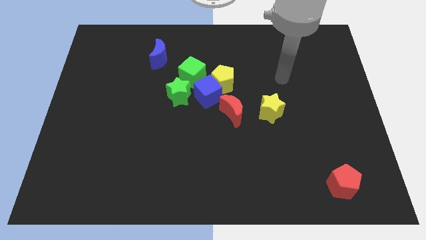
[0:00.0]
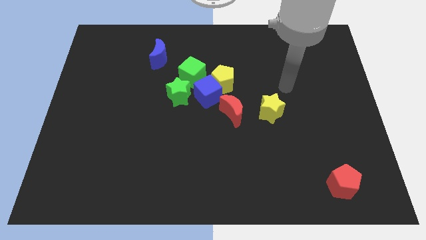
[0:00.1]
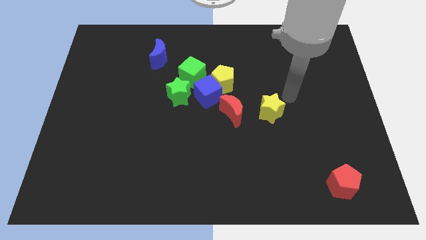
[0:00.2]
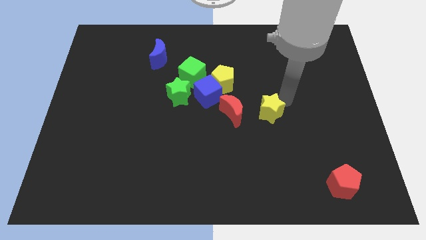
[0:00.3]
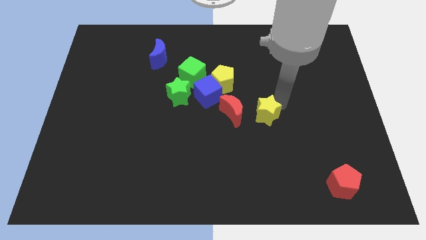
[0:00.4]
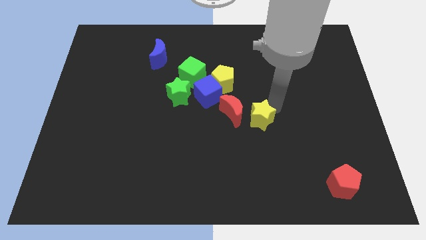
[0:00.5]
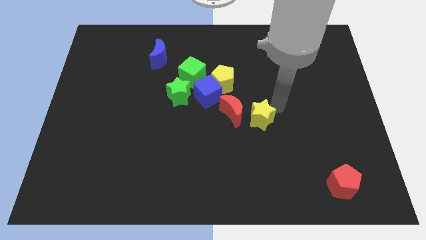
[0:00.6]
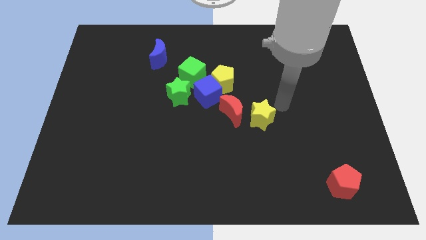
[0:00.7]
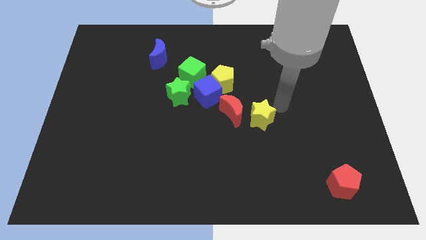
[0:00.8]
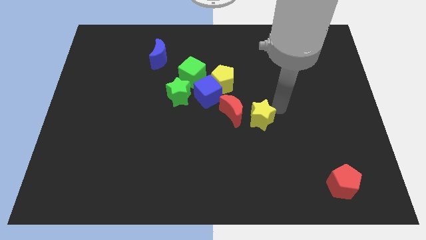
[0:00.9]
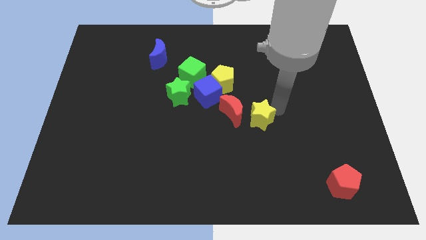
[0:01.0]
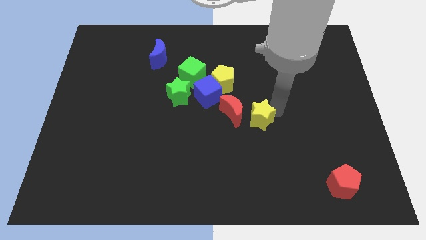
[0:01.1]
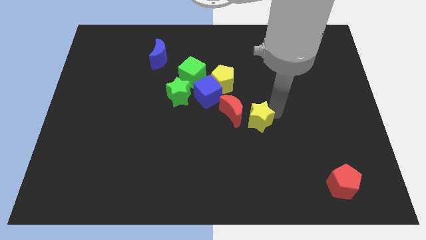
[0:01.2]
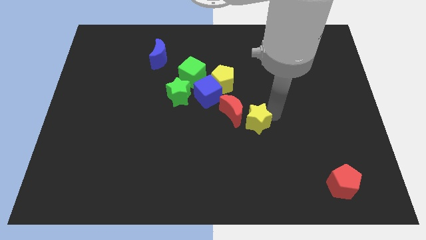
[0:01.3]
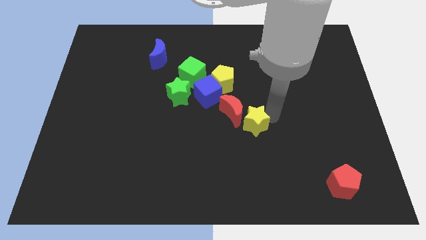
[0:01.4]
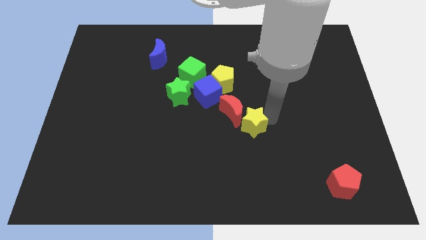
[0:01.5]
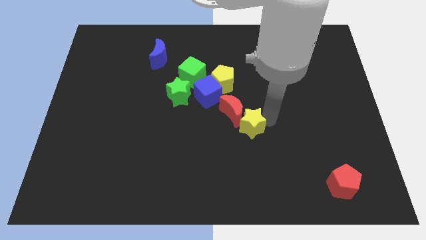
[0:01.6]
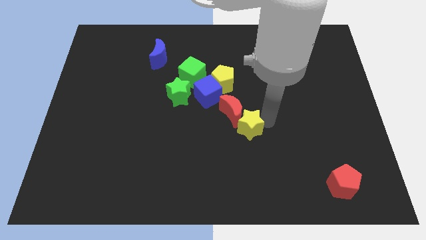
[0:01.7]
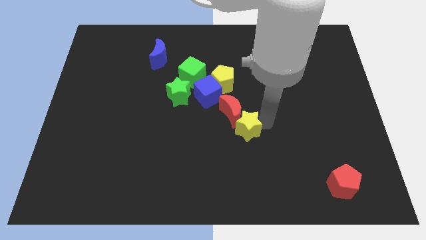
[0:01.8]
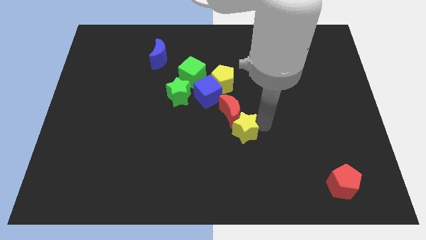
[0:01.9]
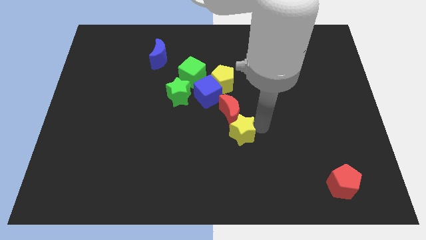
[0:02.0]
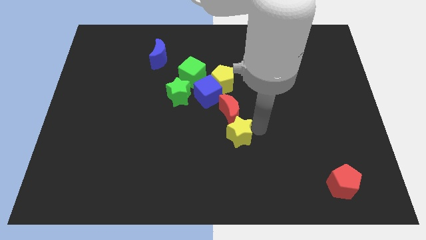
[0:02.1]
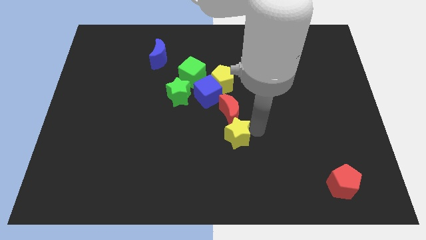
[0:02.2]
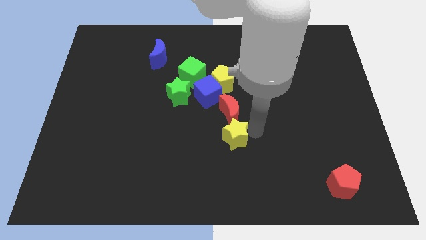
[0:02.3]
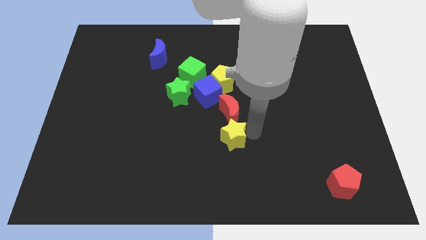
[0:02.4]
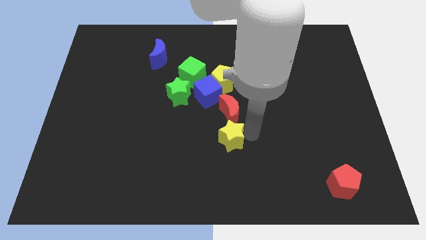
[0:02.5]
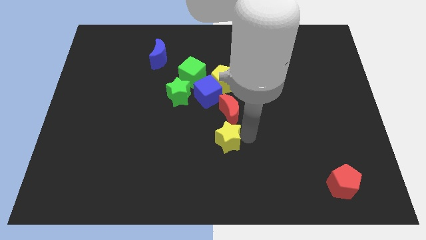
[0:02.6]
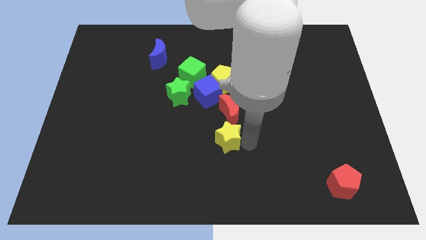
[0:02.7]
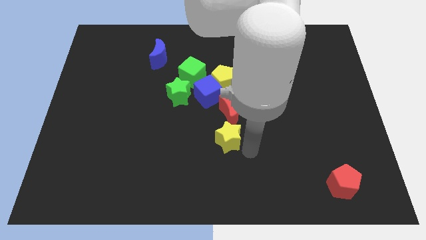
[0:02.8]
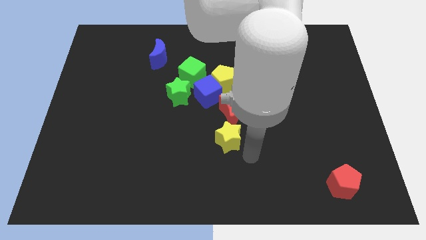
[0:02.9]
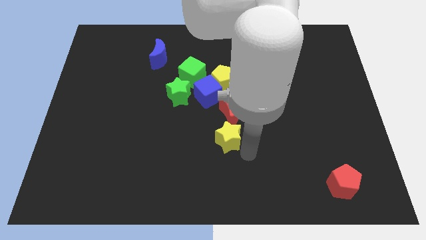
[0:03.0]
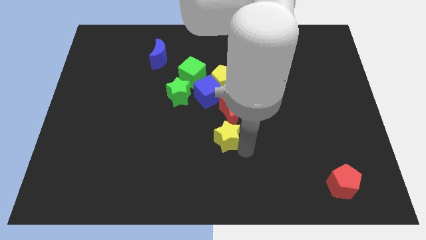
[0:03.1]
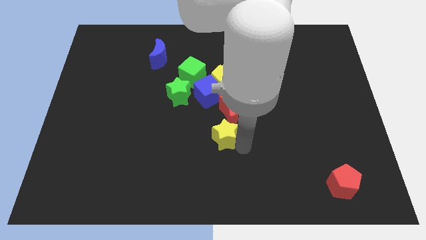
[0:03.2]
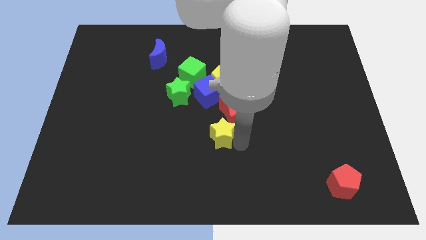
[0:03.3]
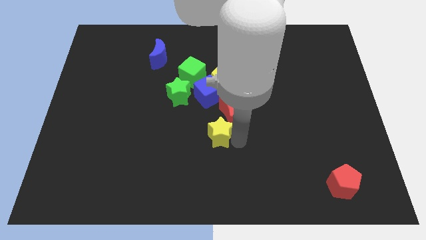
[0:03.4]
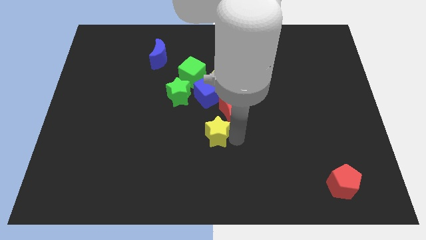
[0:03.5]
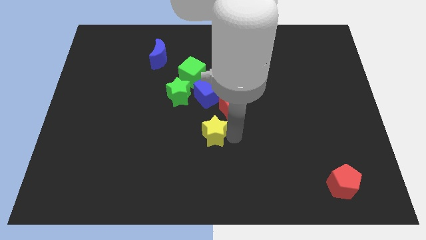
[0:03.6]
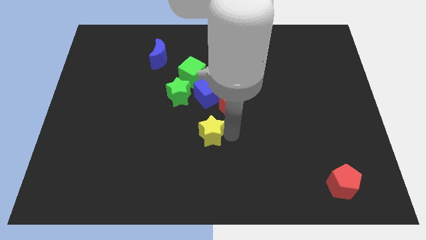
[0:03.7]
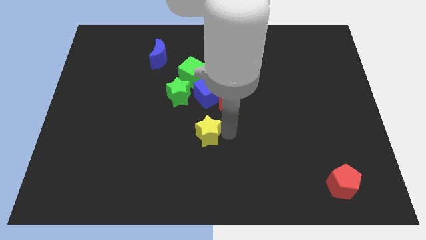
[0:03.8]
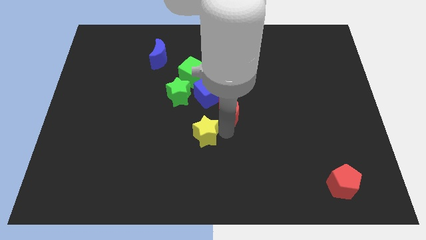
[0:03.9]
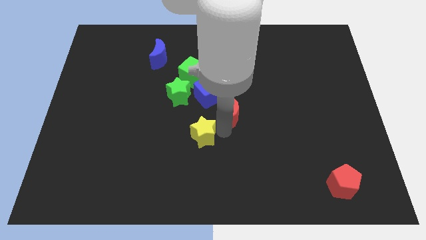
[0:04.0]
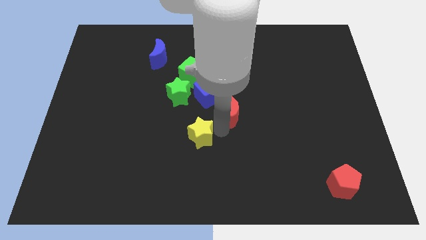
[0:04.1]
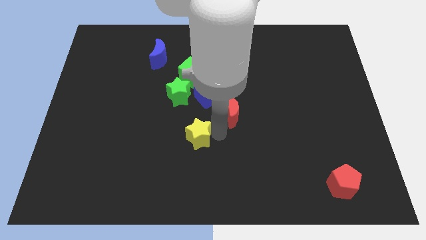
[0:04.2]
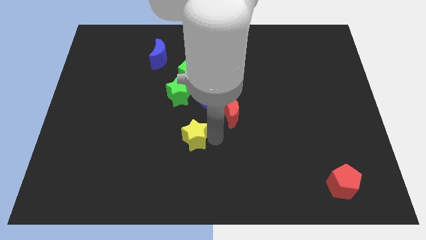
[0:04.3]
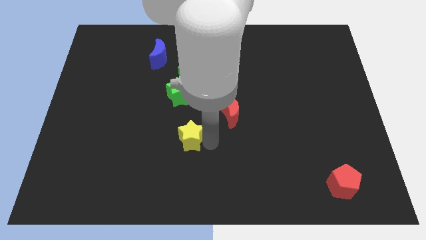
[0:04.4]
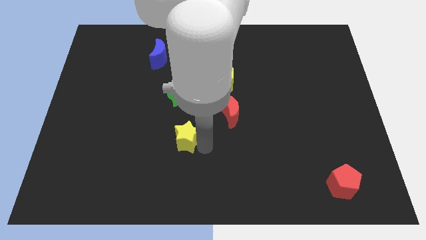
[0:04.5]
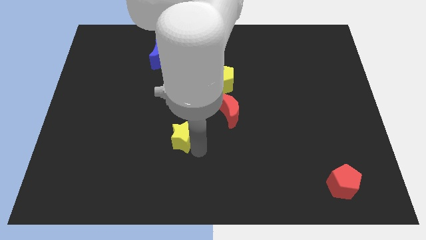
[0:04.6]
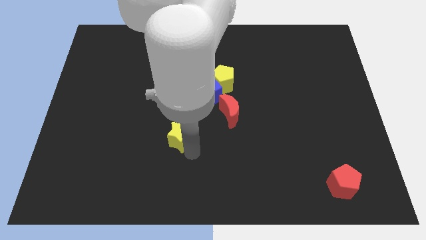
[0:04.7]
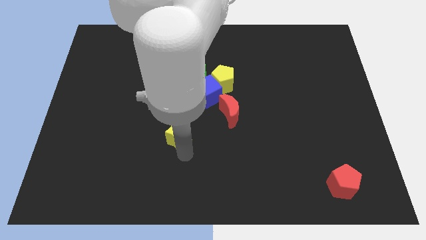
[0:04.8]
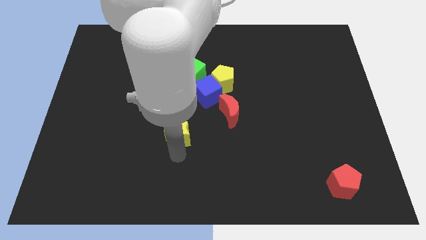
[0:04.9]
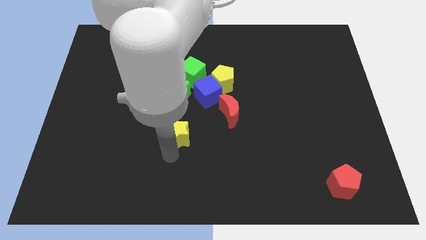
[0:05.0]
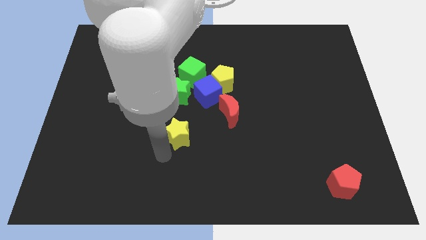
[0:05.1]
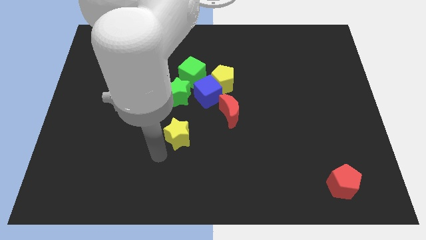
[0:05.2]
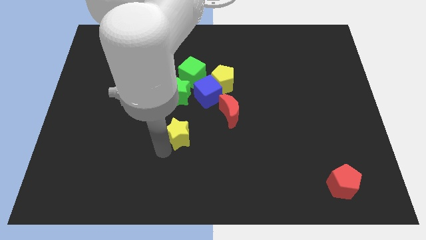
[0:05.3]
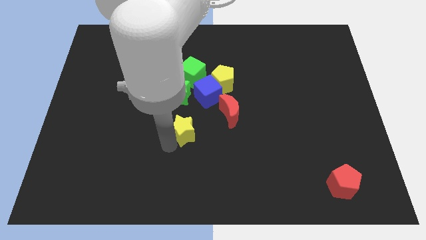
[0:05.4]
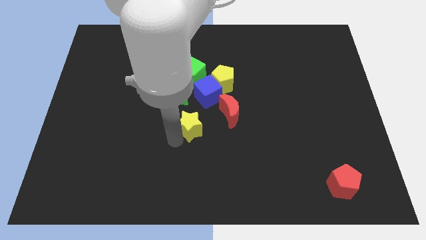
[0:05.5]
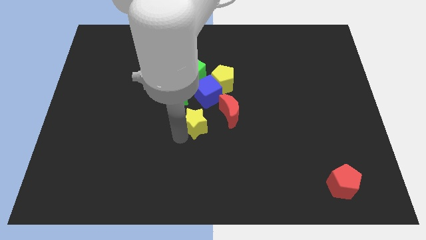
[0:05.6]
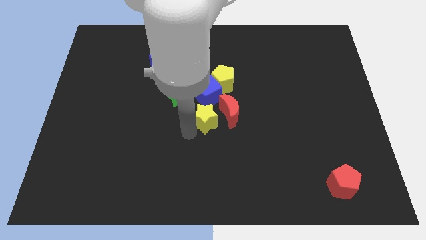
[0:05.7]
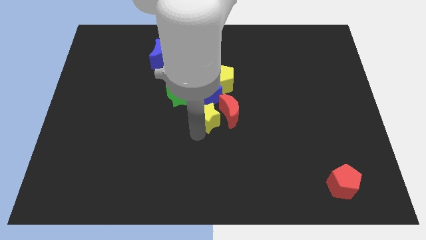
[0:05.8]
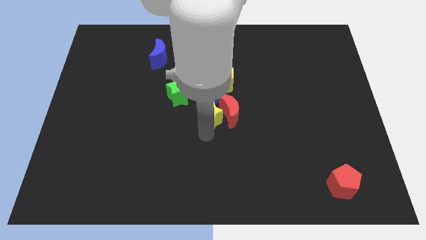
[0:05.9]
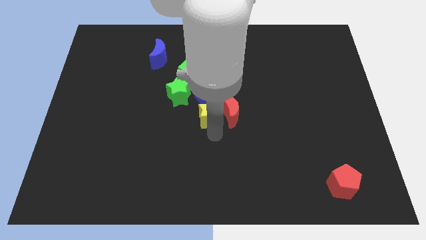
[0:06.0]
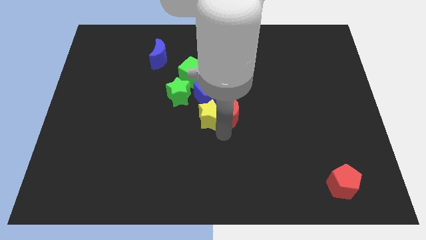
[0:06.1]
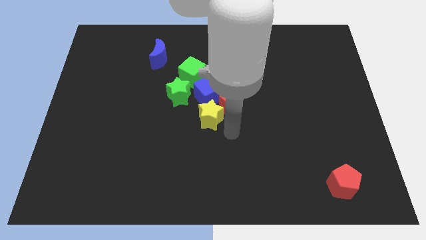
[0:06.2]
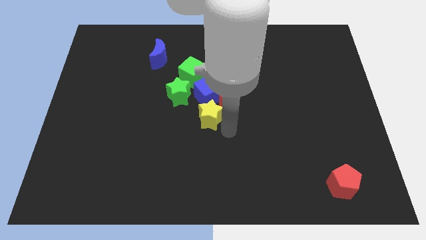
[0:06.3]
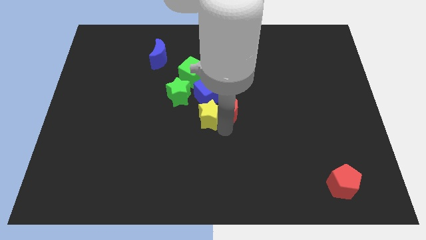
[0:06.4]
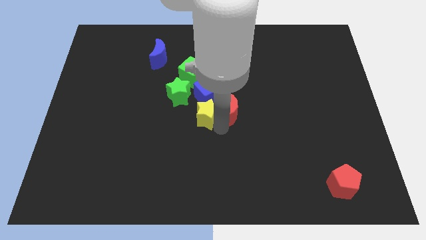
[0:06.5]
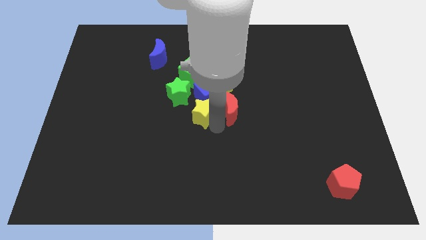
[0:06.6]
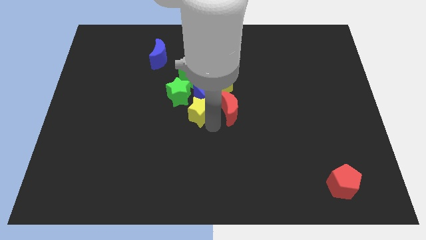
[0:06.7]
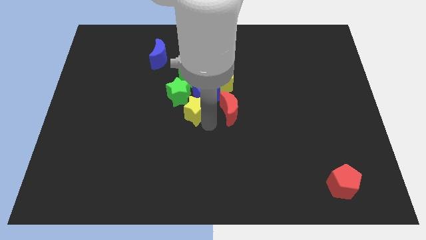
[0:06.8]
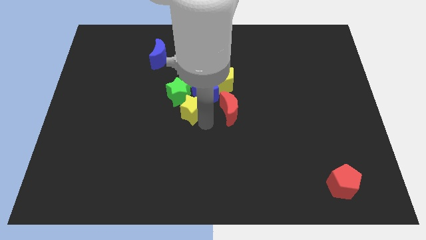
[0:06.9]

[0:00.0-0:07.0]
slide the yellow star close to the green star

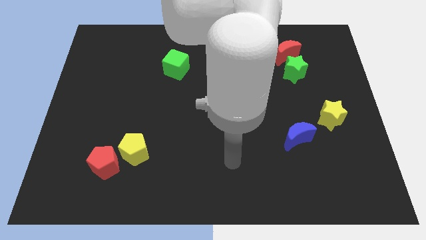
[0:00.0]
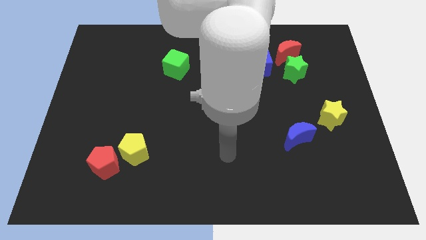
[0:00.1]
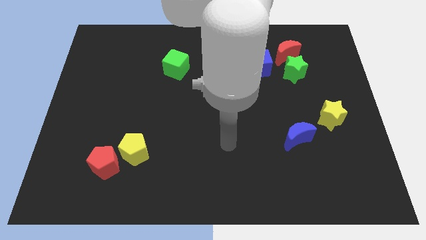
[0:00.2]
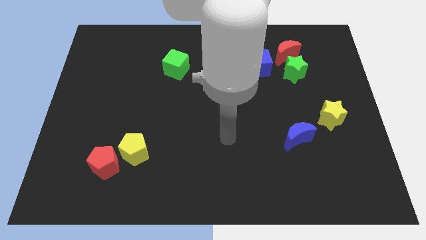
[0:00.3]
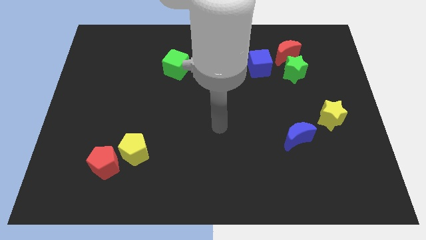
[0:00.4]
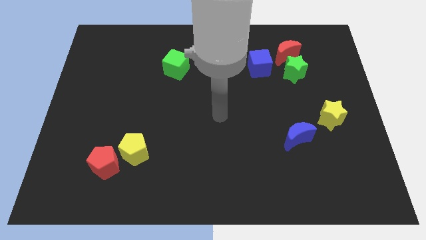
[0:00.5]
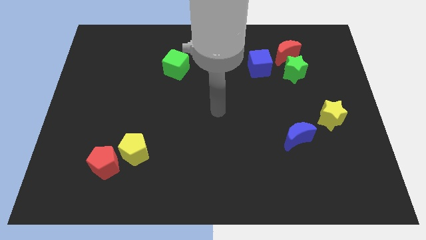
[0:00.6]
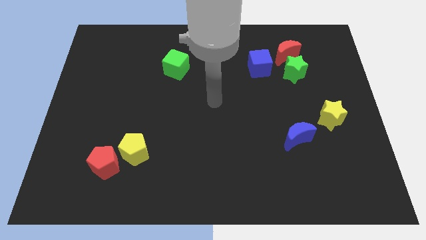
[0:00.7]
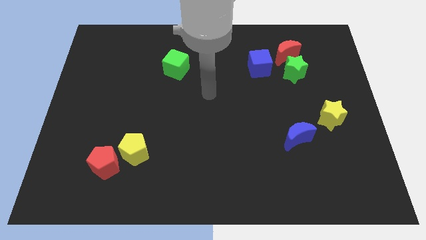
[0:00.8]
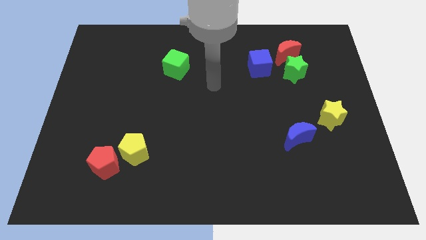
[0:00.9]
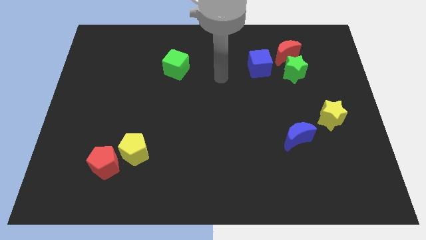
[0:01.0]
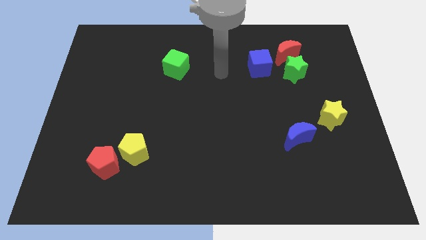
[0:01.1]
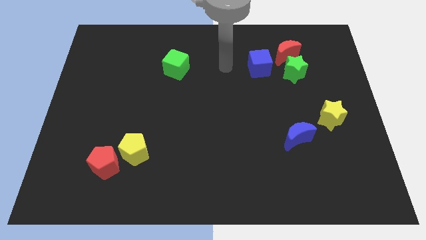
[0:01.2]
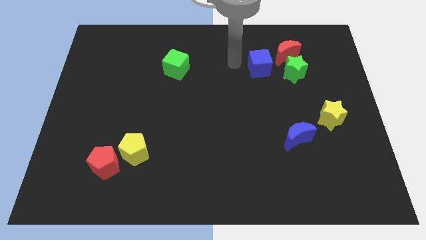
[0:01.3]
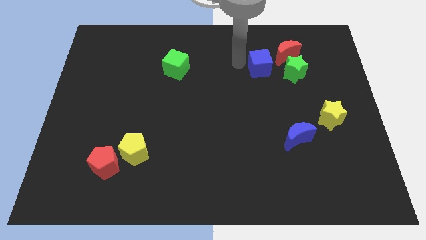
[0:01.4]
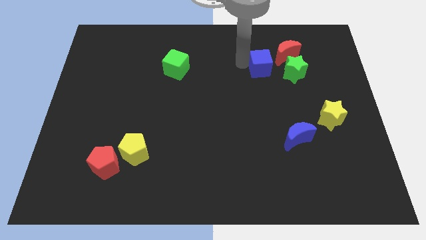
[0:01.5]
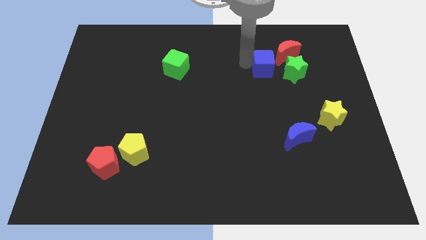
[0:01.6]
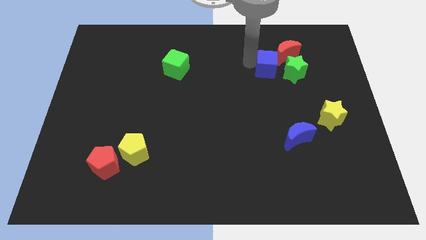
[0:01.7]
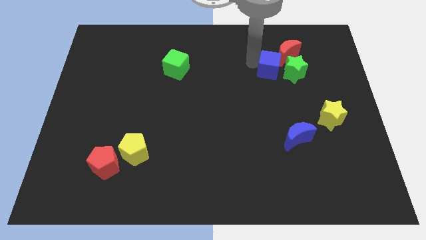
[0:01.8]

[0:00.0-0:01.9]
slide the blue cube to the green star
